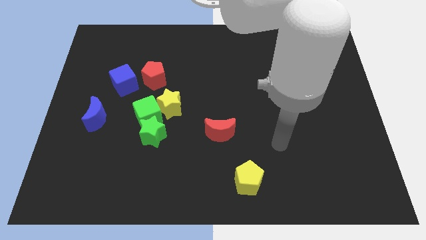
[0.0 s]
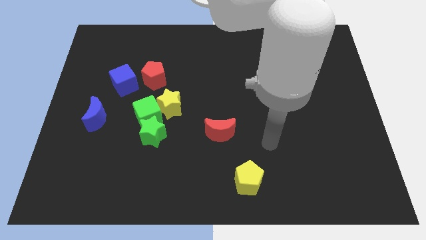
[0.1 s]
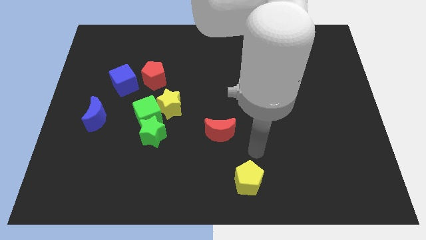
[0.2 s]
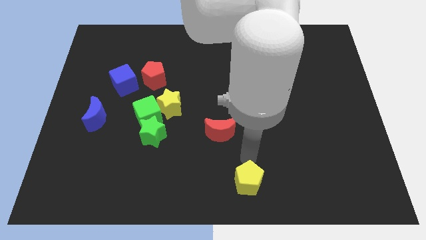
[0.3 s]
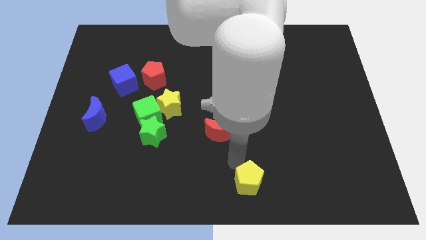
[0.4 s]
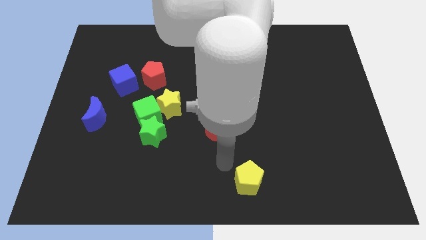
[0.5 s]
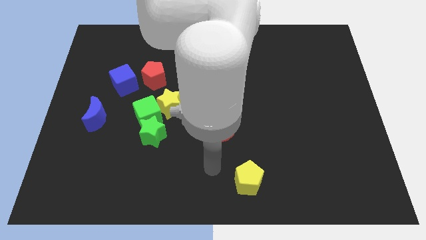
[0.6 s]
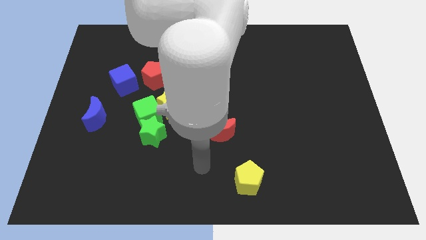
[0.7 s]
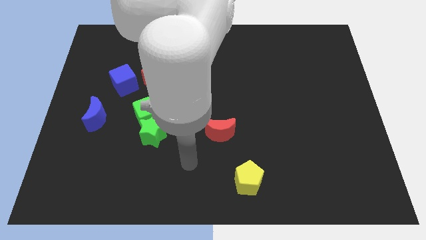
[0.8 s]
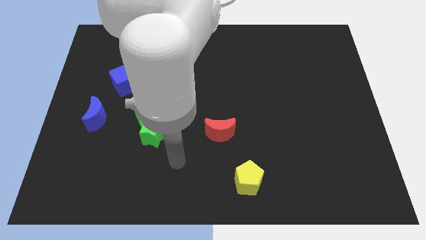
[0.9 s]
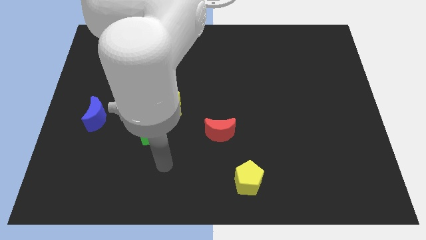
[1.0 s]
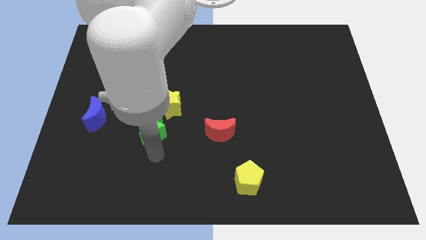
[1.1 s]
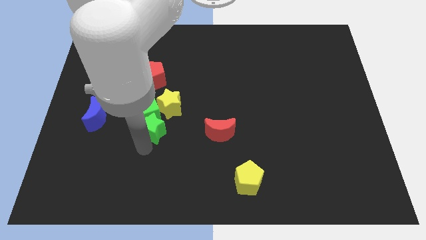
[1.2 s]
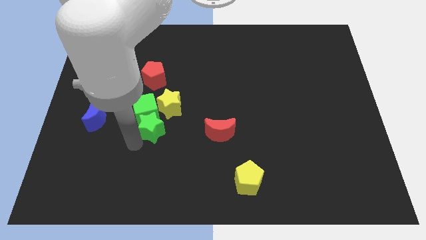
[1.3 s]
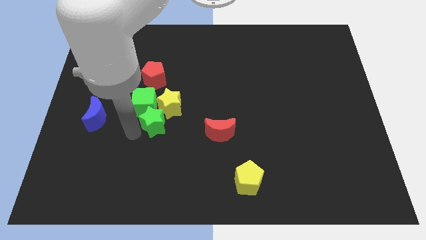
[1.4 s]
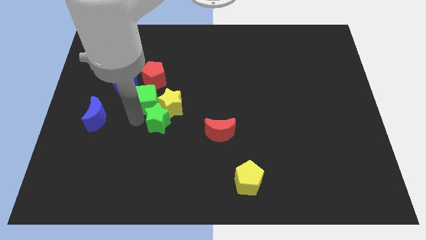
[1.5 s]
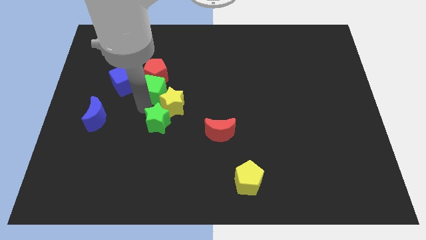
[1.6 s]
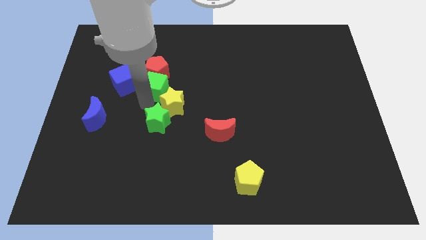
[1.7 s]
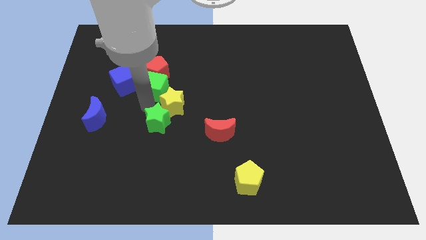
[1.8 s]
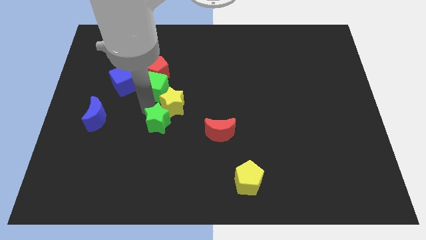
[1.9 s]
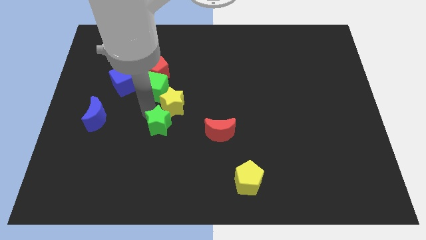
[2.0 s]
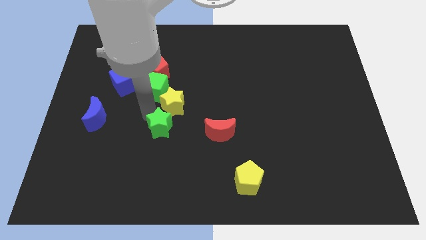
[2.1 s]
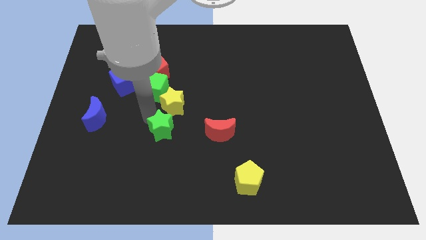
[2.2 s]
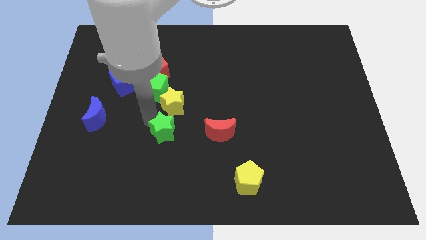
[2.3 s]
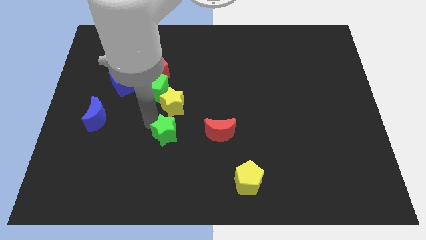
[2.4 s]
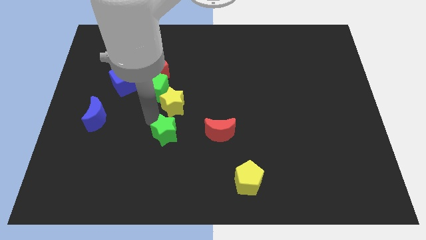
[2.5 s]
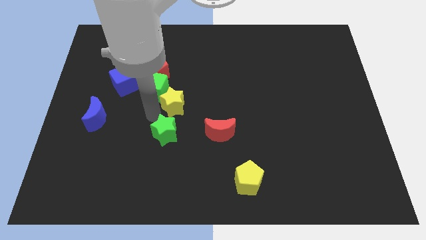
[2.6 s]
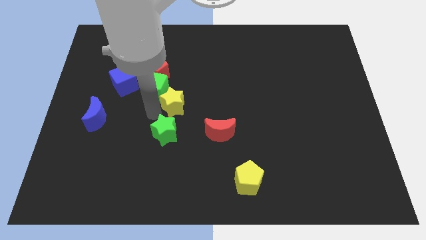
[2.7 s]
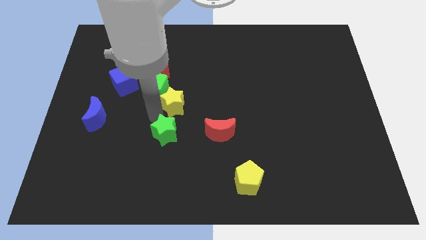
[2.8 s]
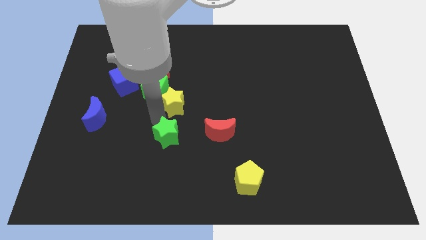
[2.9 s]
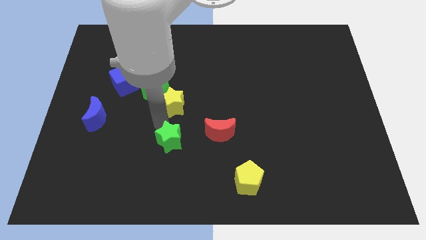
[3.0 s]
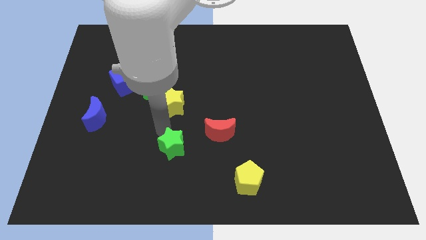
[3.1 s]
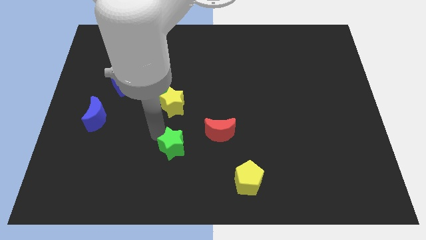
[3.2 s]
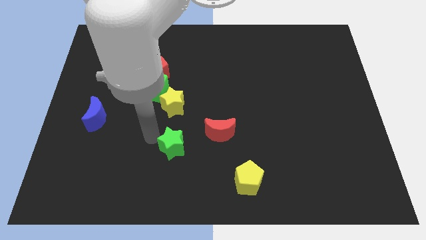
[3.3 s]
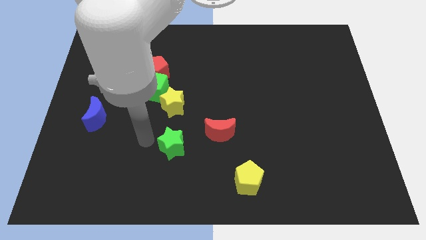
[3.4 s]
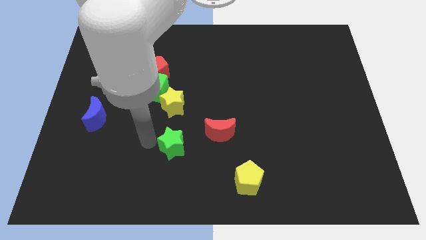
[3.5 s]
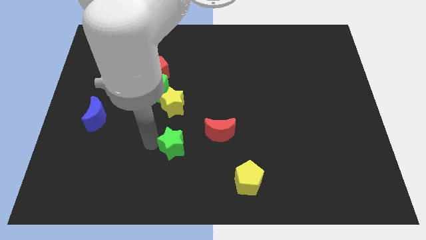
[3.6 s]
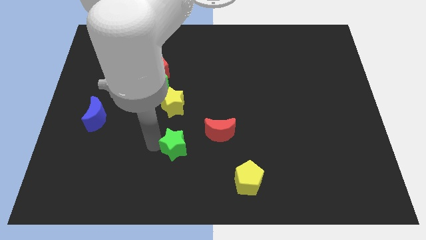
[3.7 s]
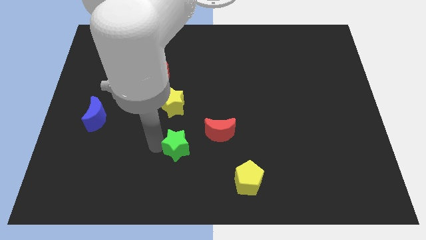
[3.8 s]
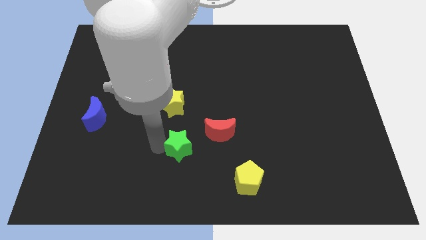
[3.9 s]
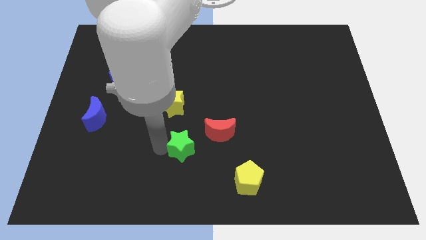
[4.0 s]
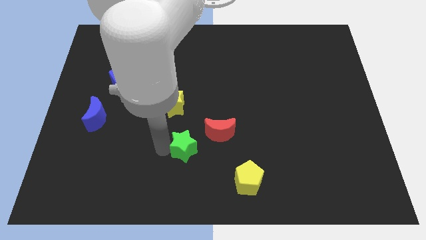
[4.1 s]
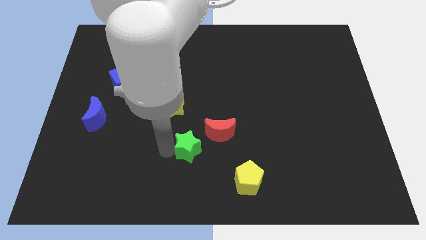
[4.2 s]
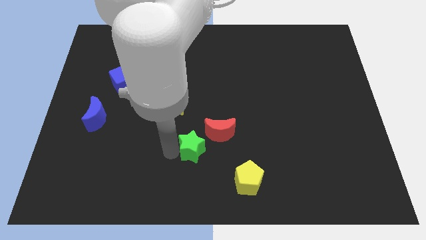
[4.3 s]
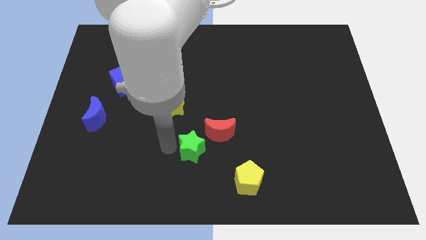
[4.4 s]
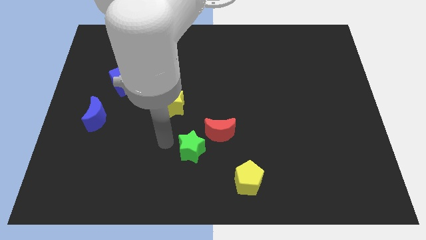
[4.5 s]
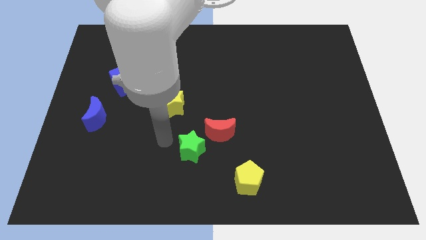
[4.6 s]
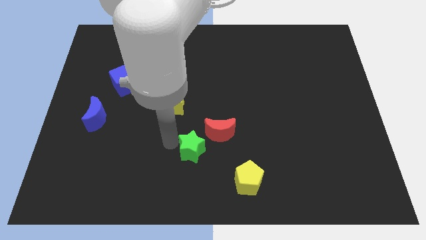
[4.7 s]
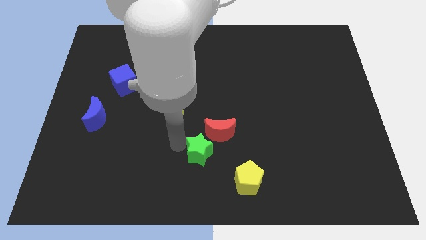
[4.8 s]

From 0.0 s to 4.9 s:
move the green star to the top left side of the yellow pentagon

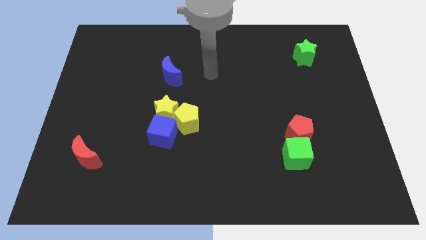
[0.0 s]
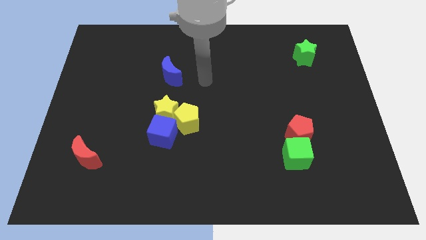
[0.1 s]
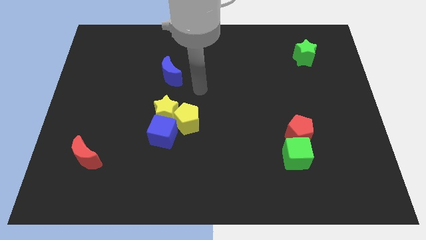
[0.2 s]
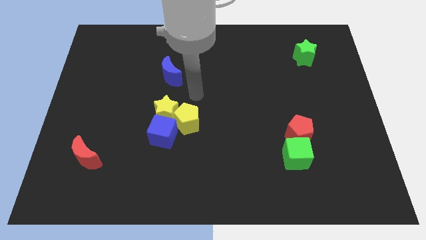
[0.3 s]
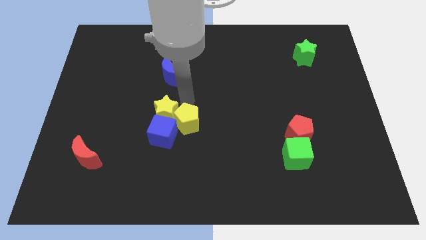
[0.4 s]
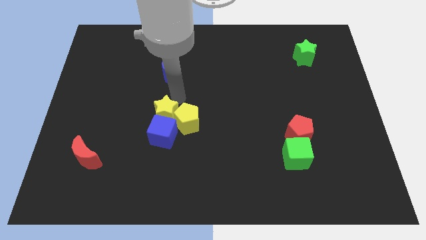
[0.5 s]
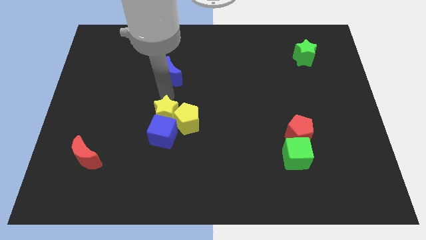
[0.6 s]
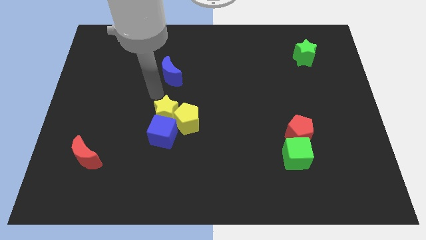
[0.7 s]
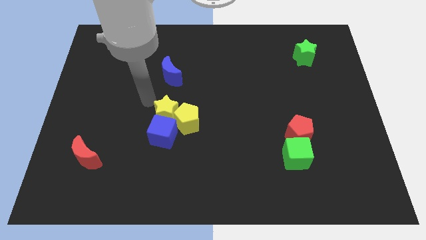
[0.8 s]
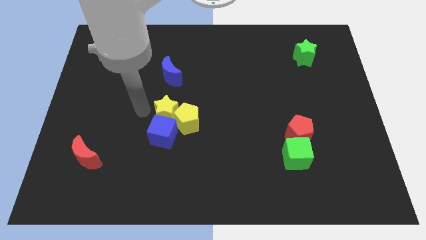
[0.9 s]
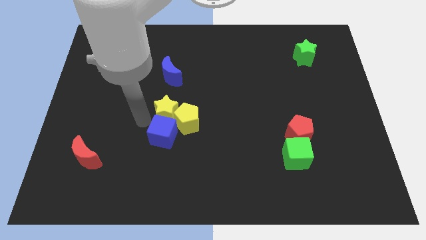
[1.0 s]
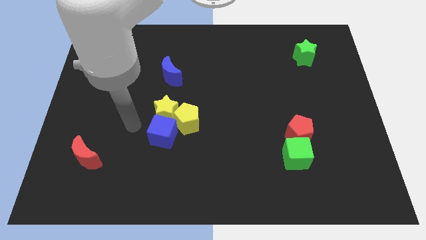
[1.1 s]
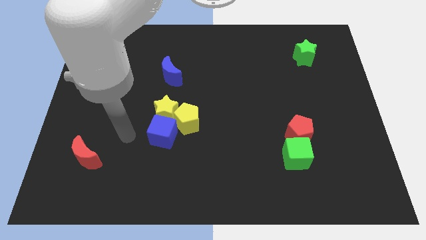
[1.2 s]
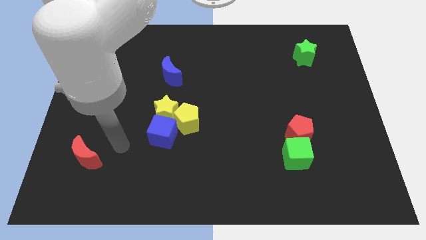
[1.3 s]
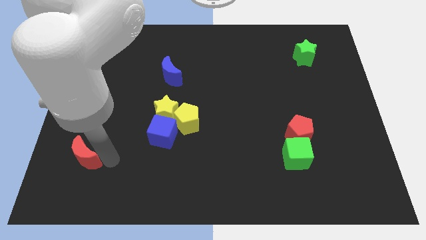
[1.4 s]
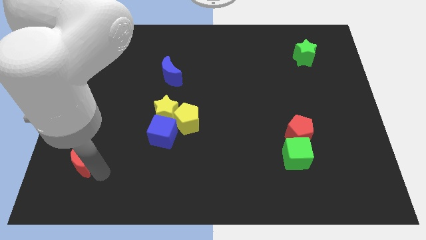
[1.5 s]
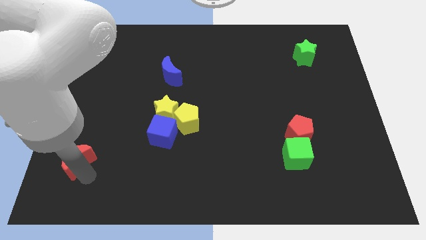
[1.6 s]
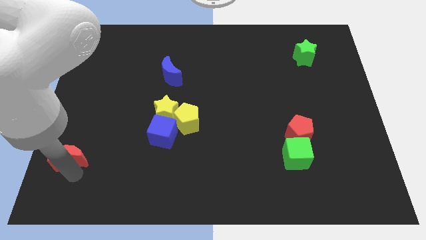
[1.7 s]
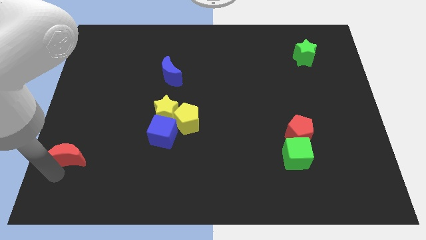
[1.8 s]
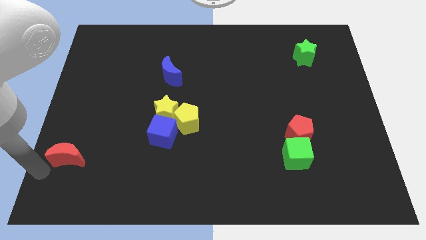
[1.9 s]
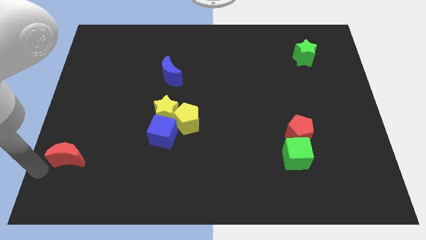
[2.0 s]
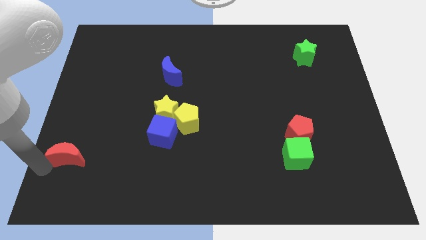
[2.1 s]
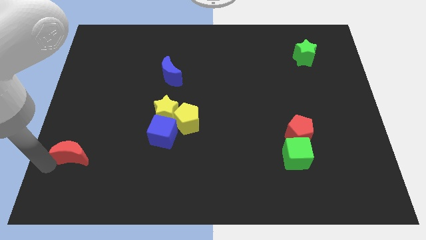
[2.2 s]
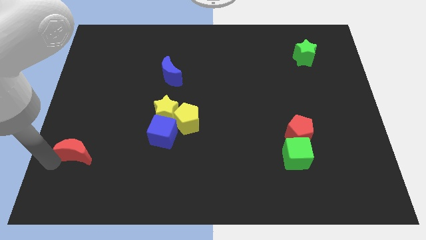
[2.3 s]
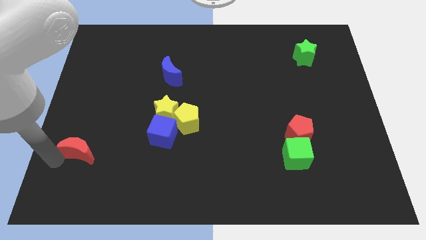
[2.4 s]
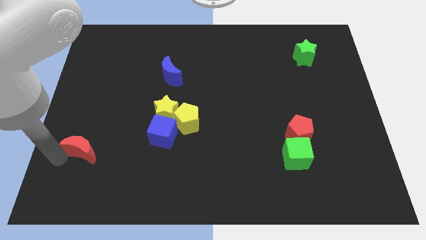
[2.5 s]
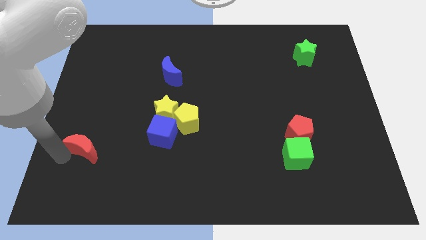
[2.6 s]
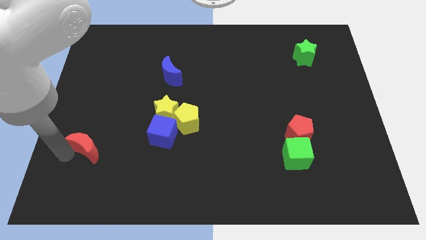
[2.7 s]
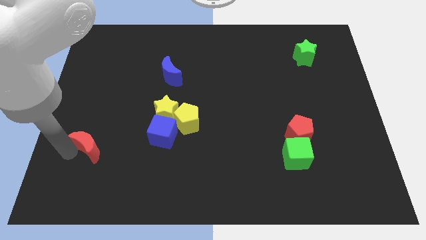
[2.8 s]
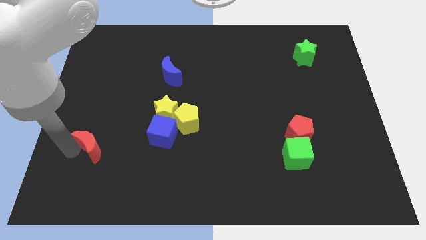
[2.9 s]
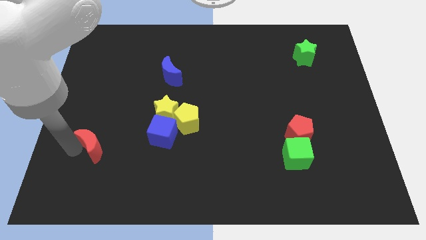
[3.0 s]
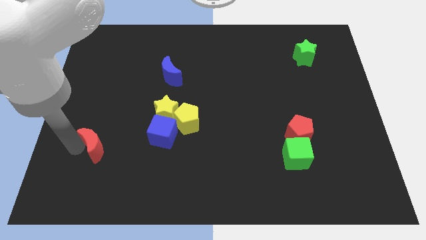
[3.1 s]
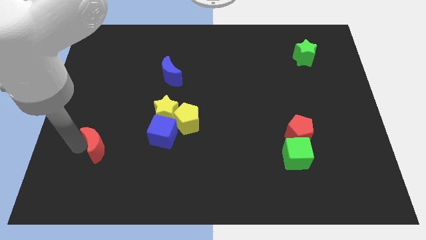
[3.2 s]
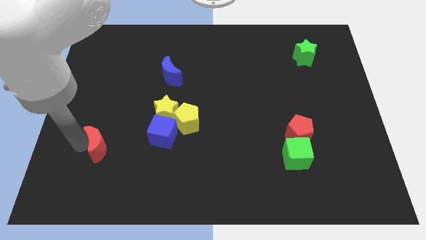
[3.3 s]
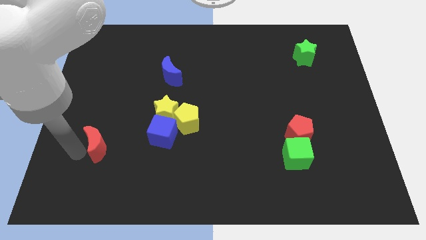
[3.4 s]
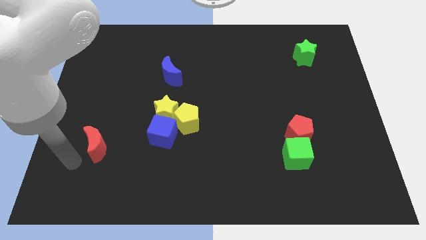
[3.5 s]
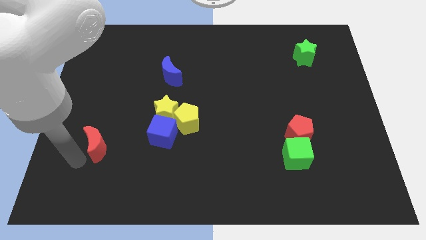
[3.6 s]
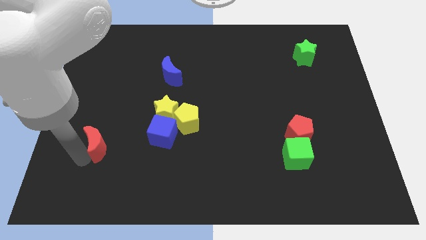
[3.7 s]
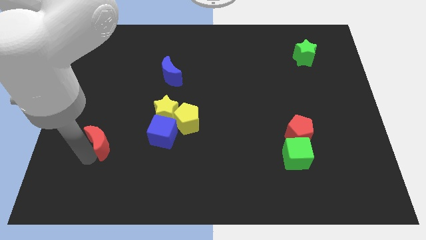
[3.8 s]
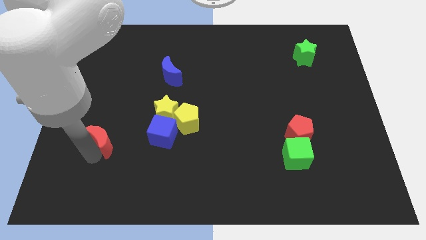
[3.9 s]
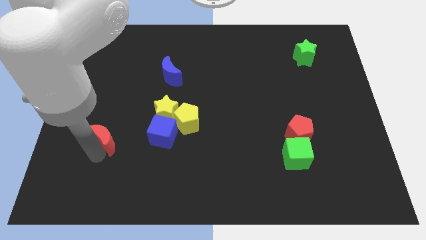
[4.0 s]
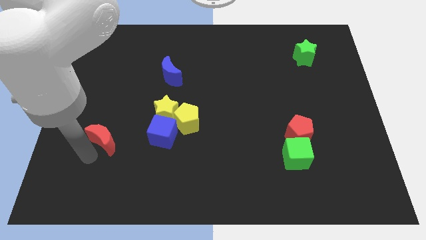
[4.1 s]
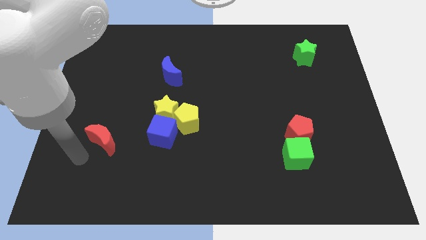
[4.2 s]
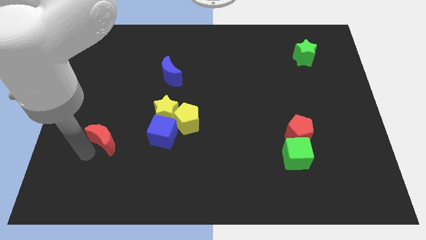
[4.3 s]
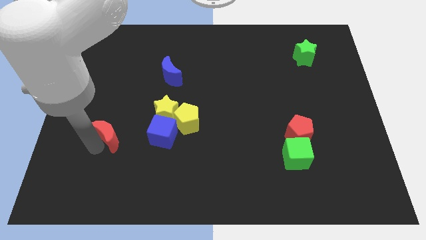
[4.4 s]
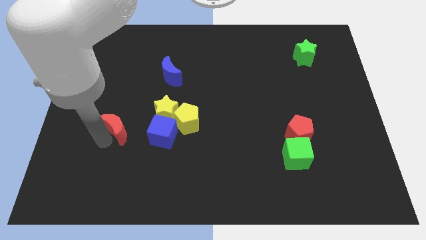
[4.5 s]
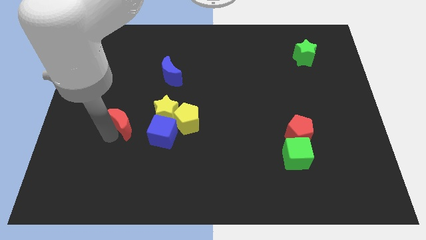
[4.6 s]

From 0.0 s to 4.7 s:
slide the red moon diagonally up and to the left of the blue cube
